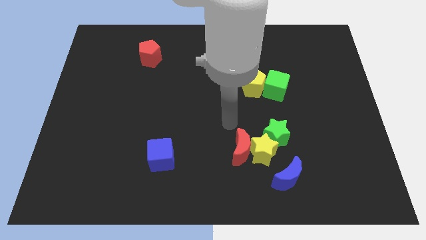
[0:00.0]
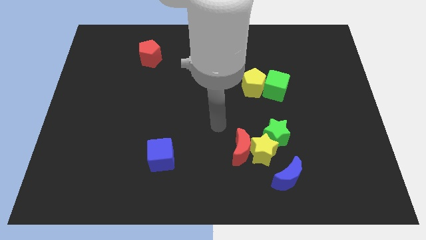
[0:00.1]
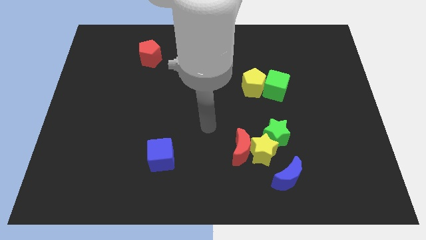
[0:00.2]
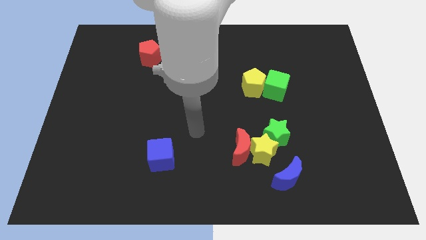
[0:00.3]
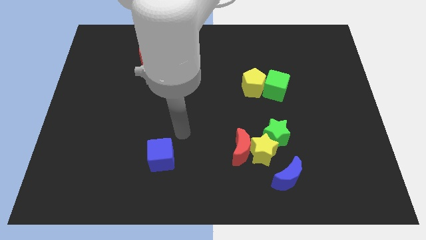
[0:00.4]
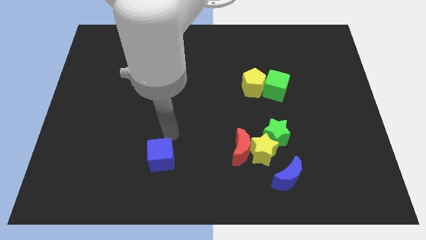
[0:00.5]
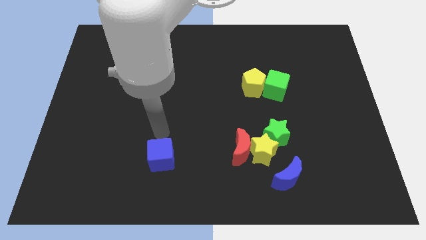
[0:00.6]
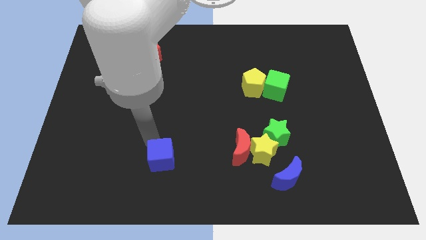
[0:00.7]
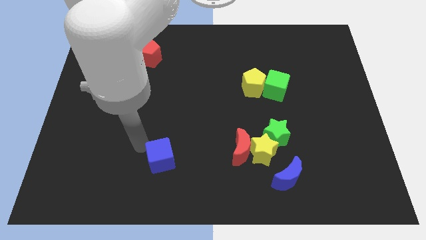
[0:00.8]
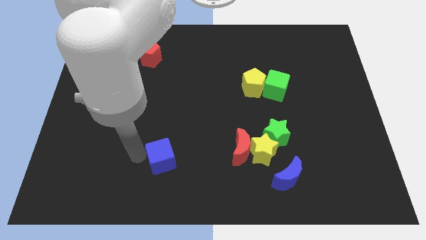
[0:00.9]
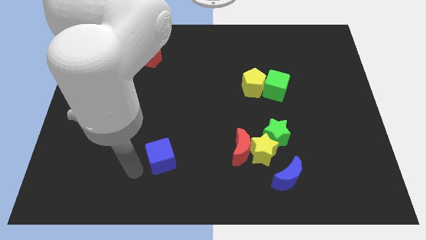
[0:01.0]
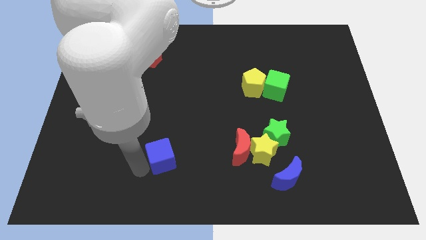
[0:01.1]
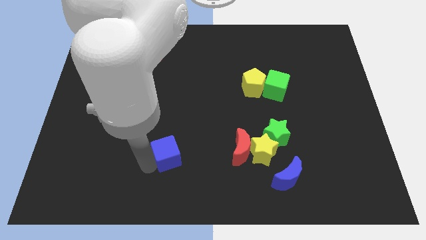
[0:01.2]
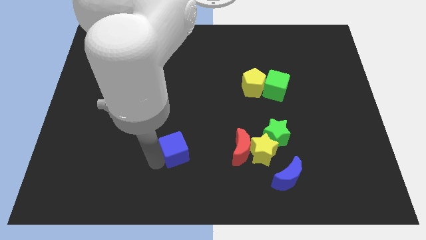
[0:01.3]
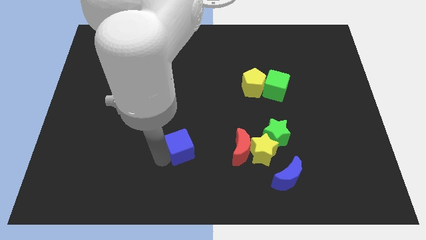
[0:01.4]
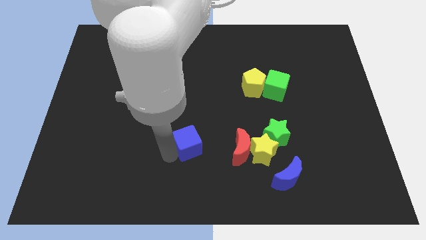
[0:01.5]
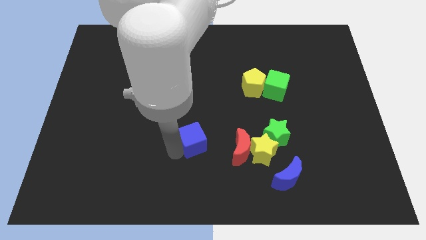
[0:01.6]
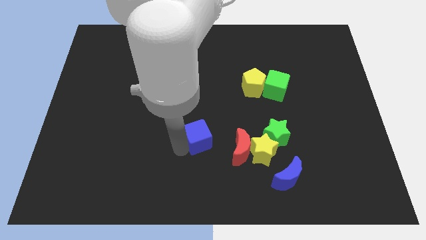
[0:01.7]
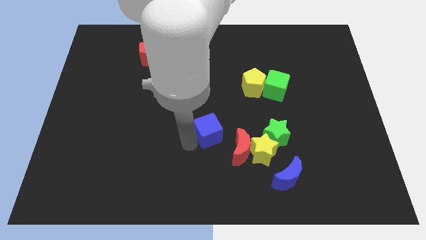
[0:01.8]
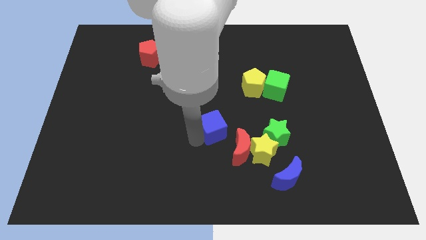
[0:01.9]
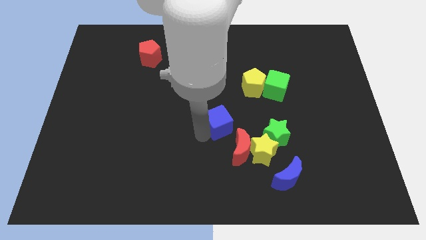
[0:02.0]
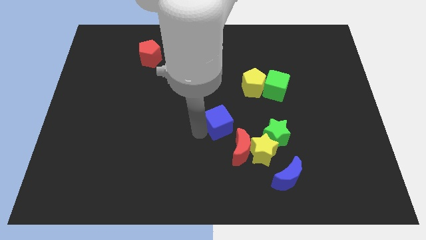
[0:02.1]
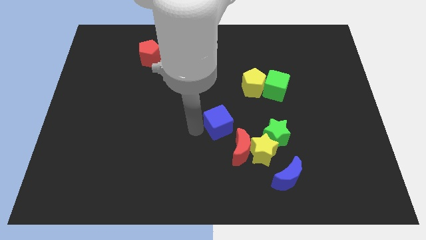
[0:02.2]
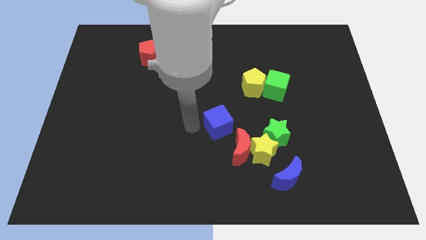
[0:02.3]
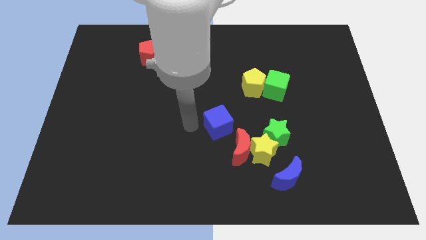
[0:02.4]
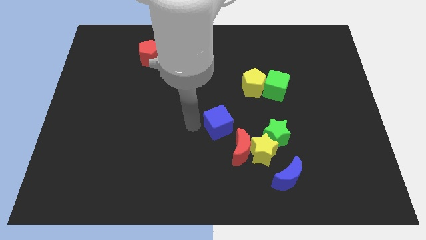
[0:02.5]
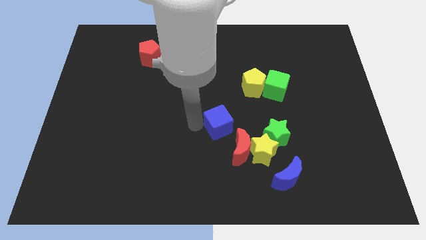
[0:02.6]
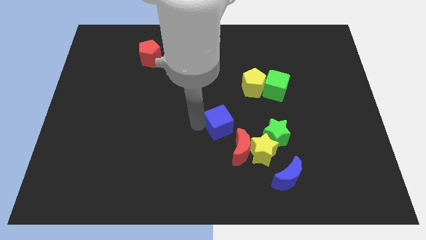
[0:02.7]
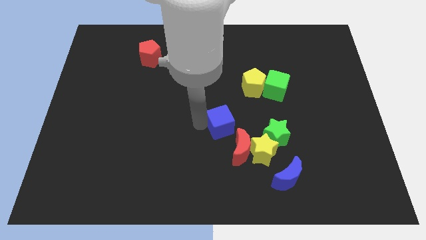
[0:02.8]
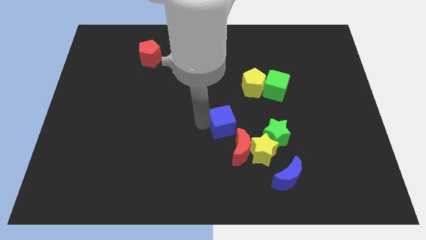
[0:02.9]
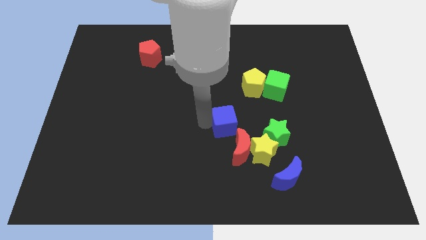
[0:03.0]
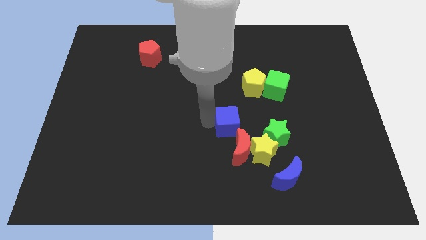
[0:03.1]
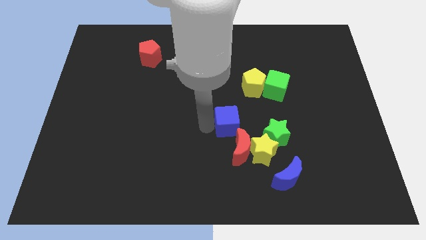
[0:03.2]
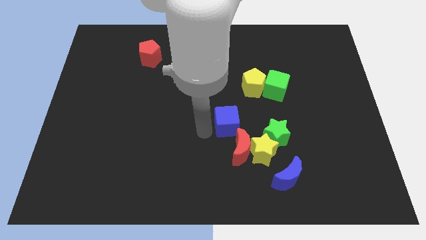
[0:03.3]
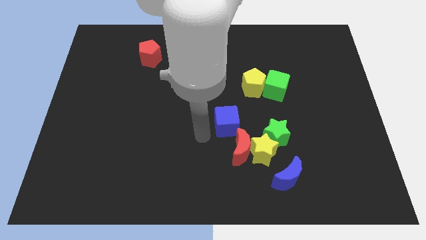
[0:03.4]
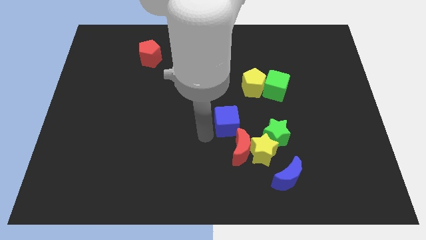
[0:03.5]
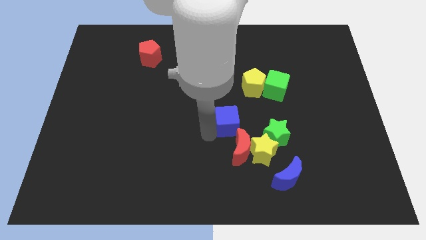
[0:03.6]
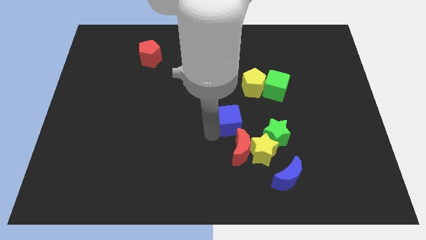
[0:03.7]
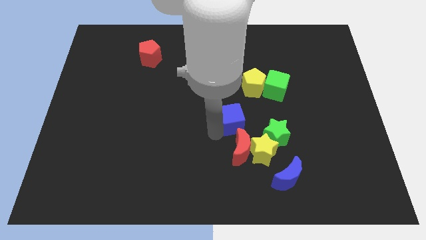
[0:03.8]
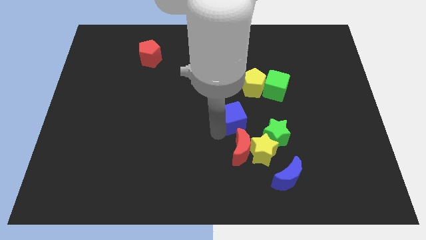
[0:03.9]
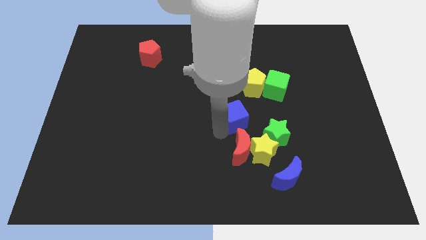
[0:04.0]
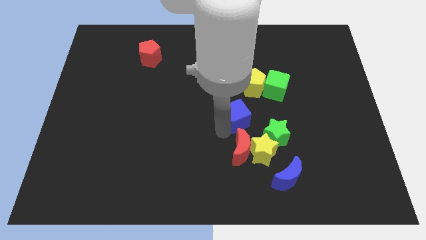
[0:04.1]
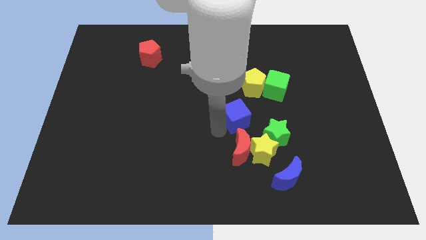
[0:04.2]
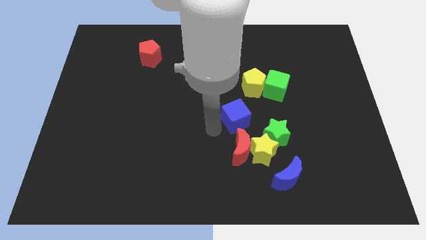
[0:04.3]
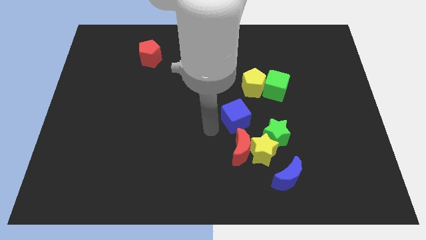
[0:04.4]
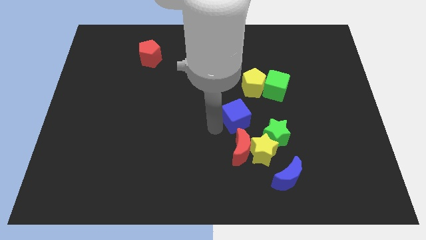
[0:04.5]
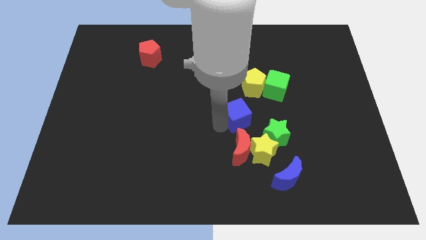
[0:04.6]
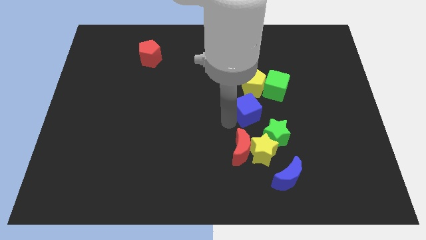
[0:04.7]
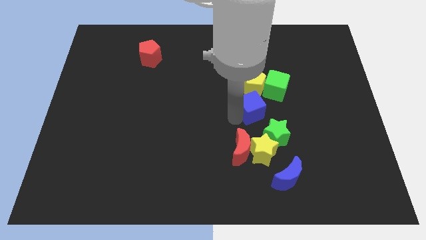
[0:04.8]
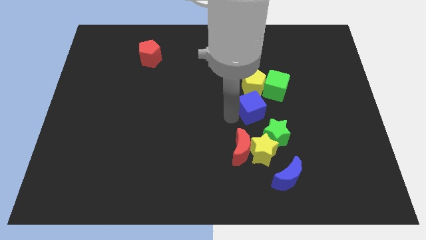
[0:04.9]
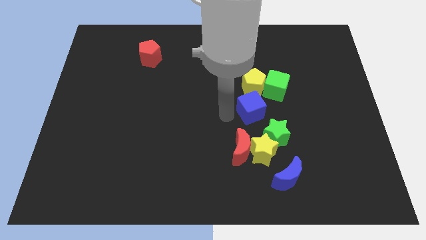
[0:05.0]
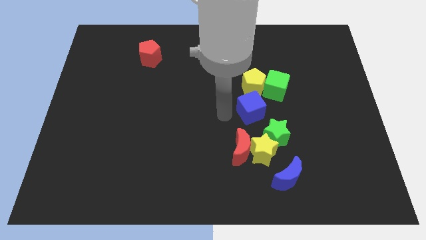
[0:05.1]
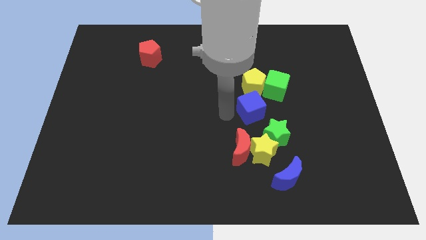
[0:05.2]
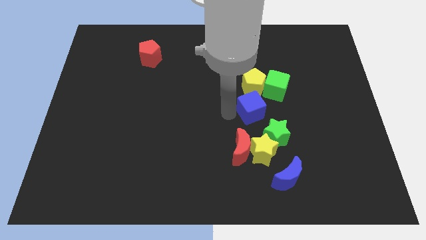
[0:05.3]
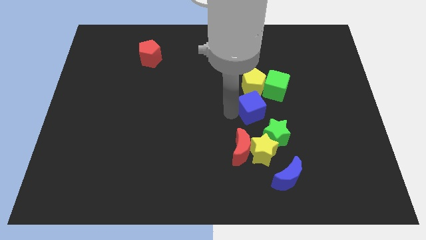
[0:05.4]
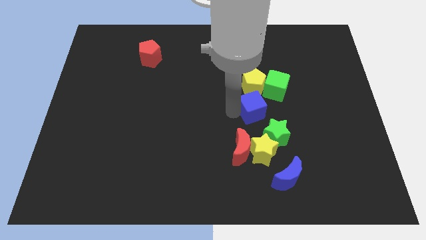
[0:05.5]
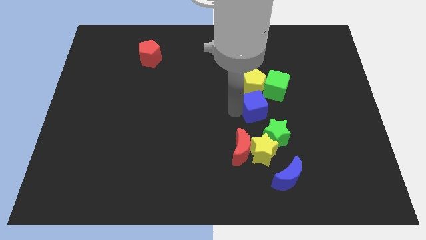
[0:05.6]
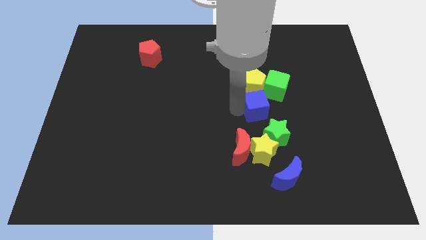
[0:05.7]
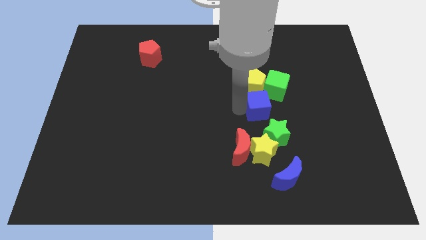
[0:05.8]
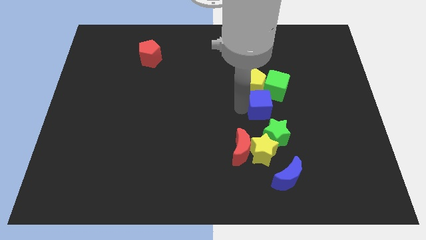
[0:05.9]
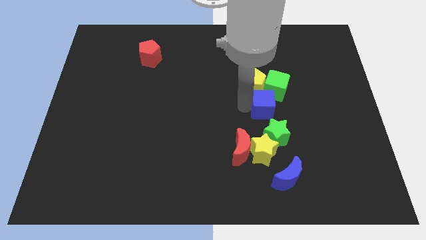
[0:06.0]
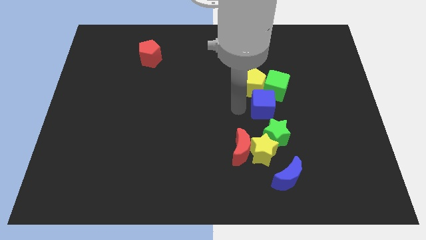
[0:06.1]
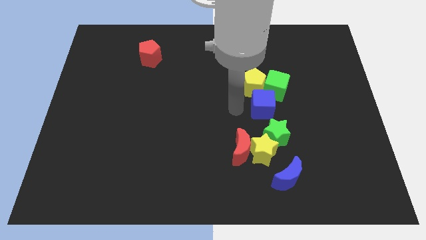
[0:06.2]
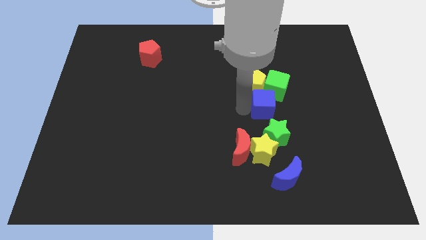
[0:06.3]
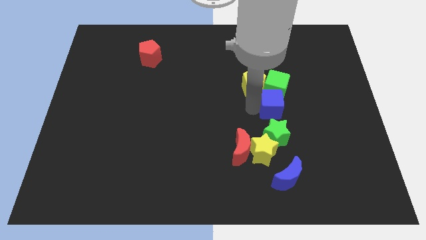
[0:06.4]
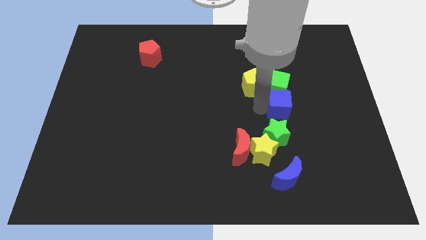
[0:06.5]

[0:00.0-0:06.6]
move the blue cube to the bottom right of the green cube
